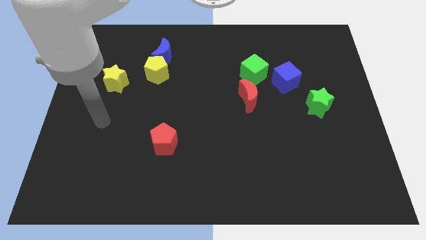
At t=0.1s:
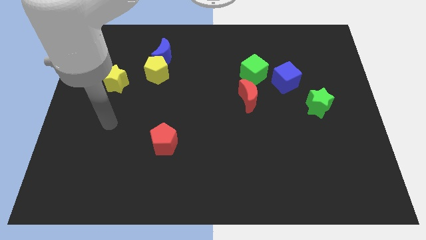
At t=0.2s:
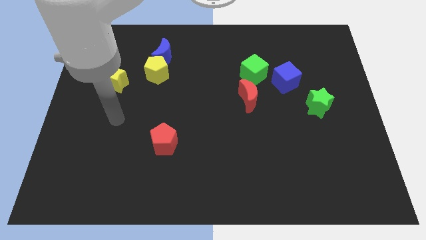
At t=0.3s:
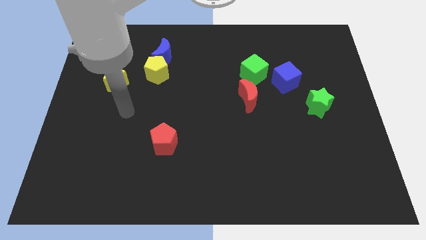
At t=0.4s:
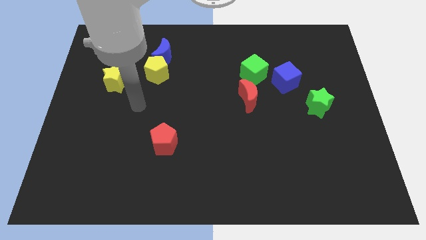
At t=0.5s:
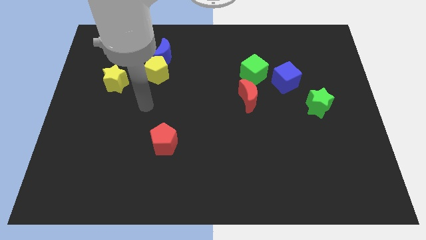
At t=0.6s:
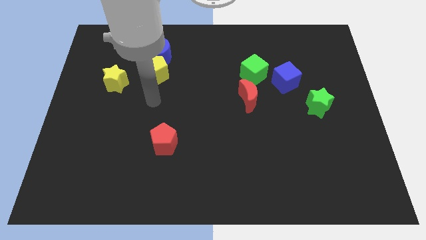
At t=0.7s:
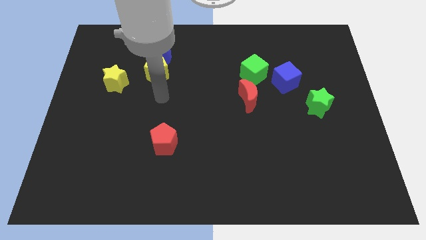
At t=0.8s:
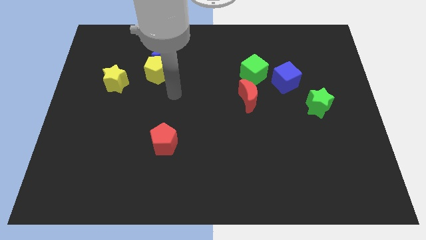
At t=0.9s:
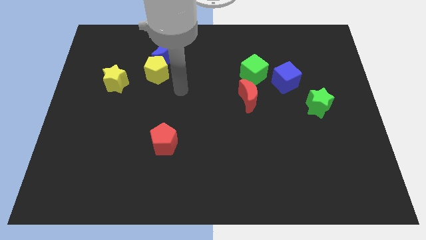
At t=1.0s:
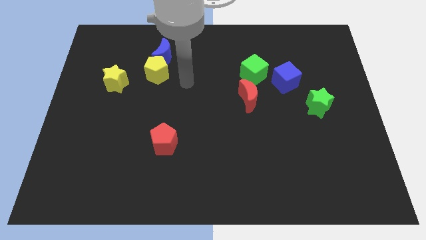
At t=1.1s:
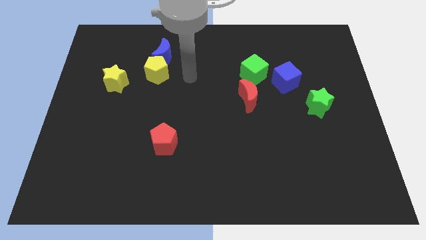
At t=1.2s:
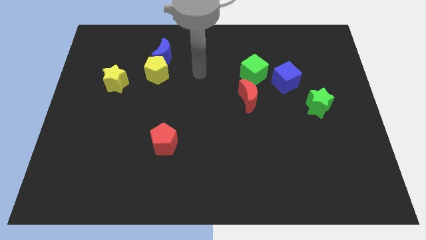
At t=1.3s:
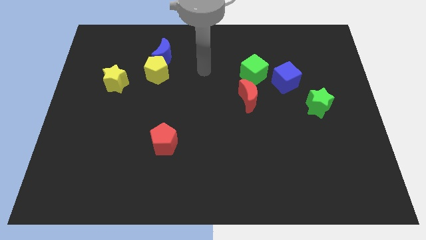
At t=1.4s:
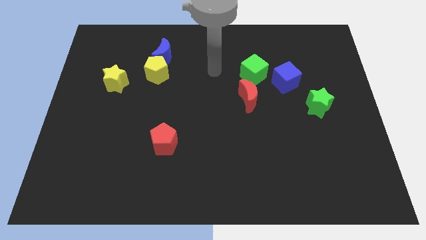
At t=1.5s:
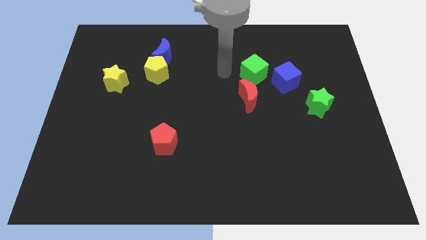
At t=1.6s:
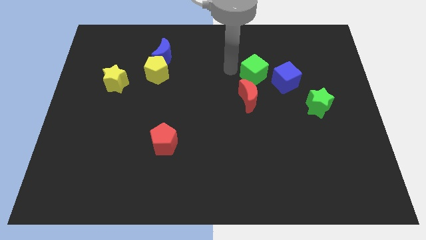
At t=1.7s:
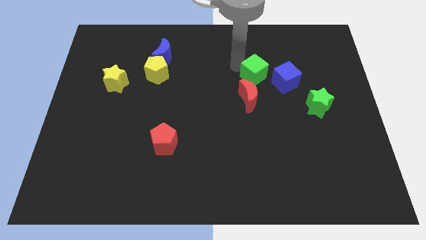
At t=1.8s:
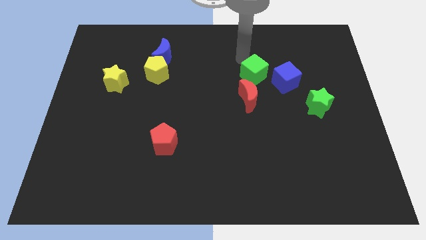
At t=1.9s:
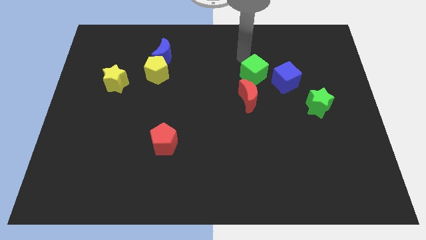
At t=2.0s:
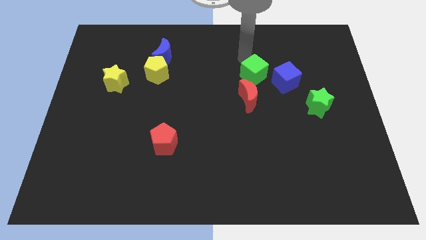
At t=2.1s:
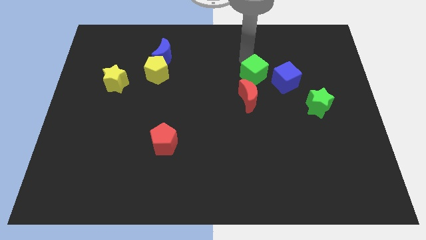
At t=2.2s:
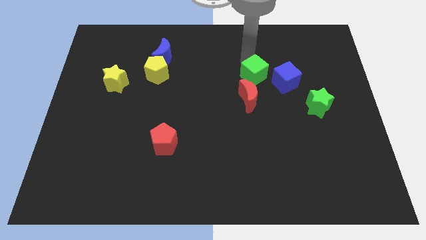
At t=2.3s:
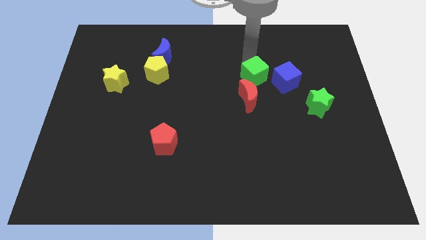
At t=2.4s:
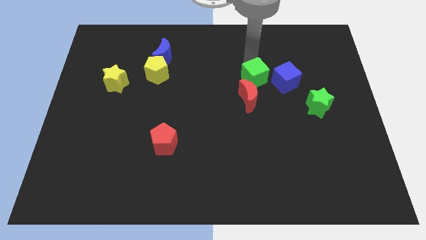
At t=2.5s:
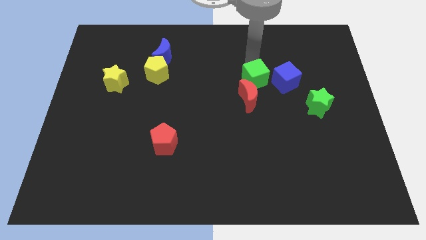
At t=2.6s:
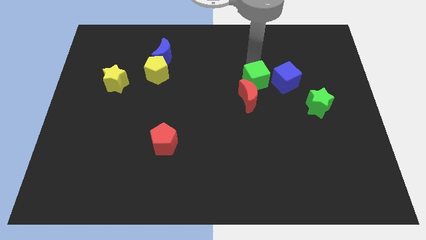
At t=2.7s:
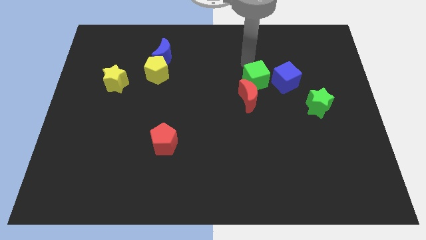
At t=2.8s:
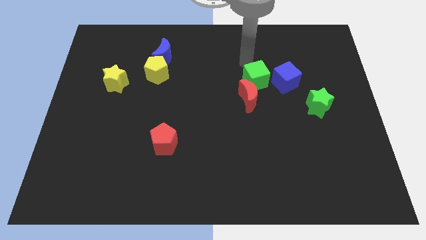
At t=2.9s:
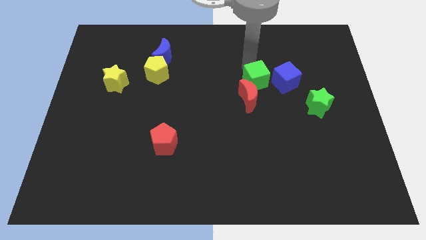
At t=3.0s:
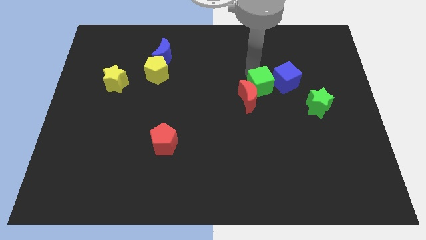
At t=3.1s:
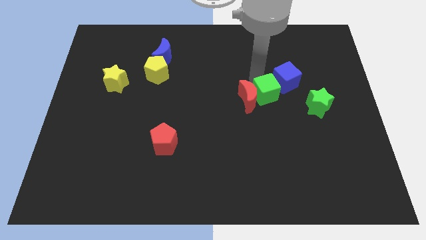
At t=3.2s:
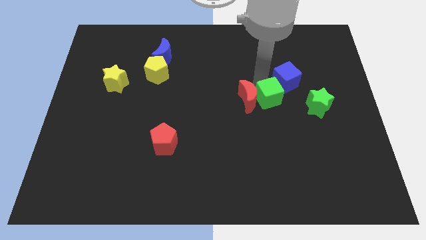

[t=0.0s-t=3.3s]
push the green cube down slightly

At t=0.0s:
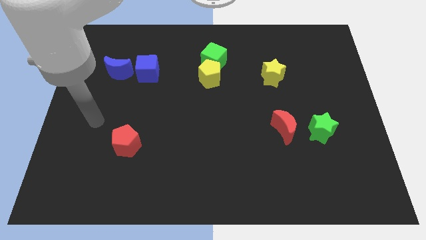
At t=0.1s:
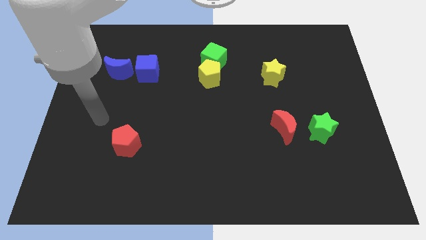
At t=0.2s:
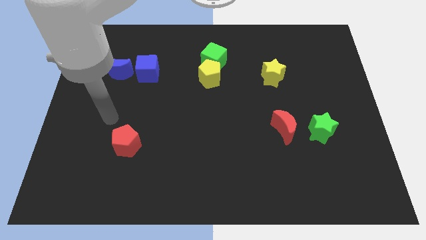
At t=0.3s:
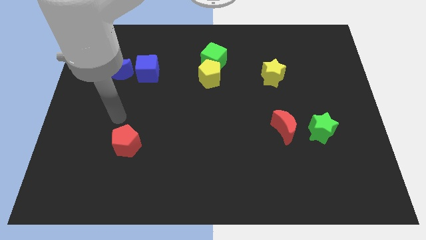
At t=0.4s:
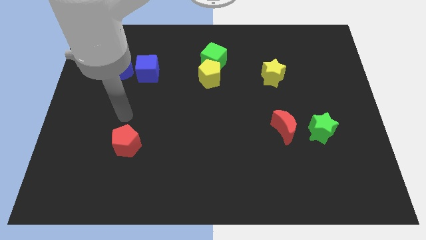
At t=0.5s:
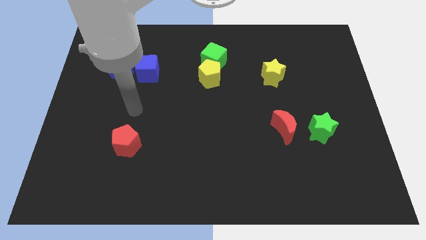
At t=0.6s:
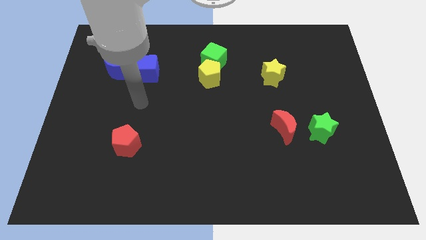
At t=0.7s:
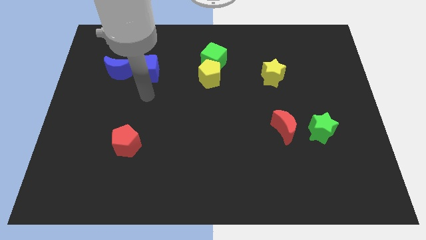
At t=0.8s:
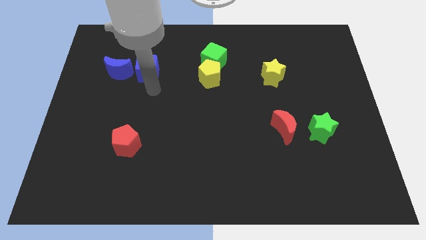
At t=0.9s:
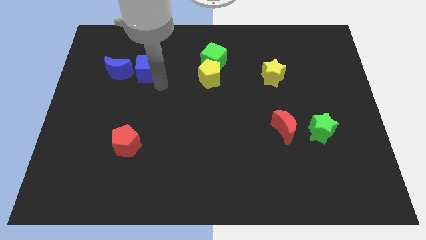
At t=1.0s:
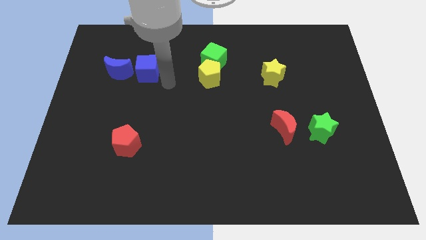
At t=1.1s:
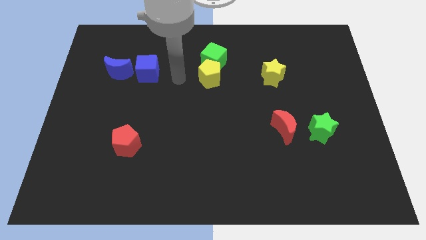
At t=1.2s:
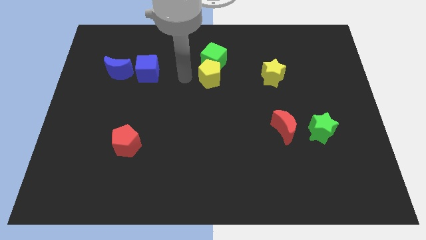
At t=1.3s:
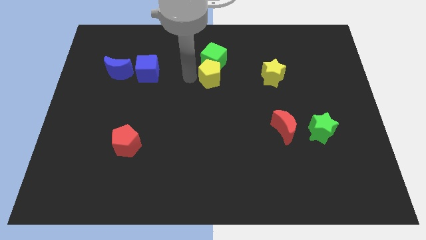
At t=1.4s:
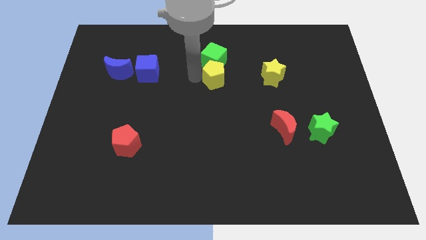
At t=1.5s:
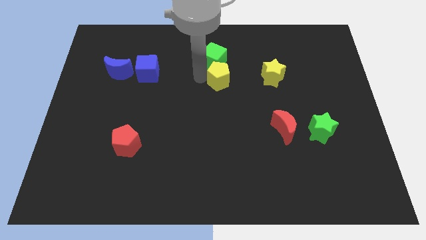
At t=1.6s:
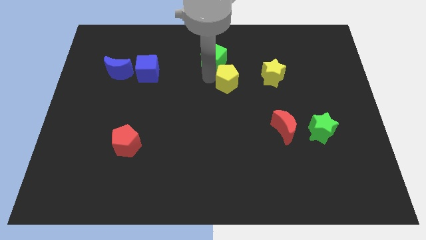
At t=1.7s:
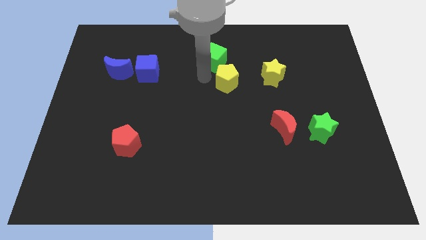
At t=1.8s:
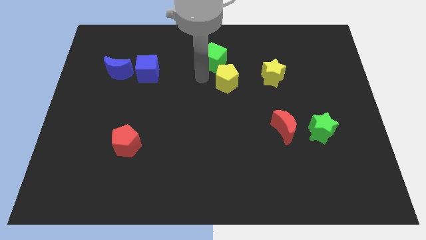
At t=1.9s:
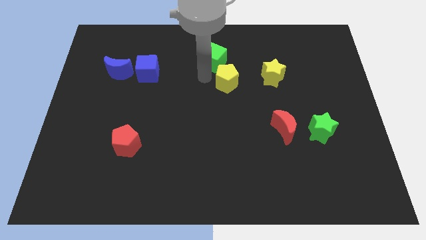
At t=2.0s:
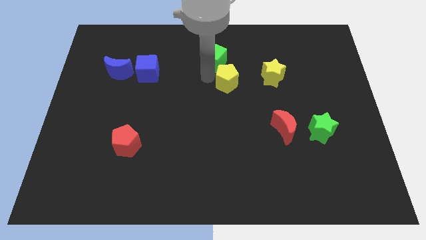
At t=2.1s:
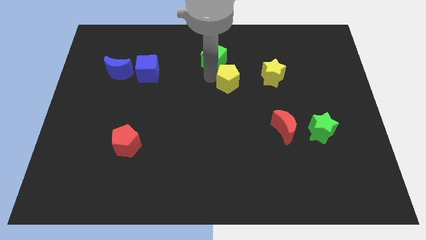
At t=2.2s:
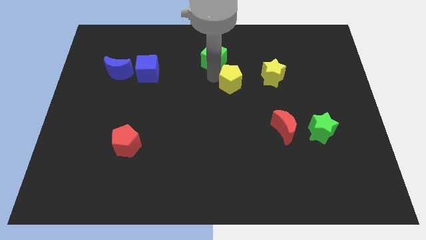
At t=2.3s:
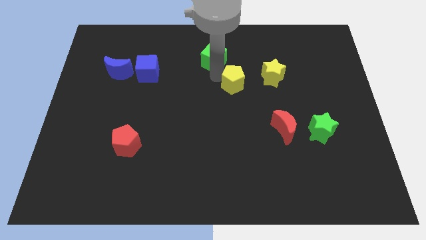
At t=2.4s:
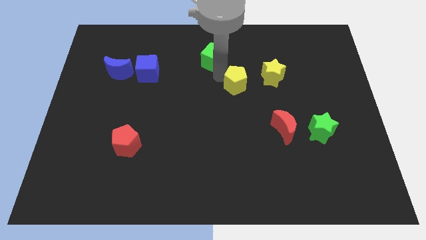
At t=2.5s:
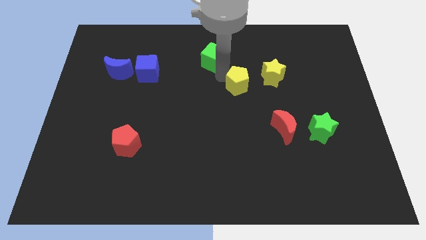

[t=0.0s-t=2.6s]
move the yellow pentagon to the right a bit

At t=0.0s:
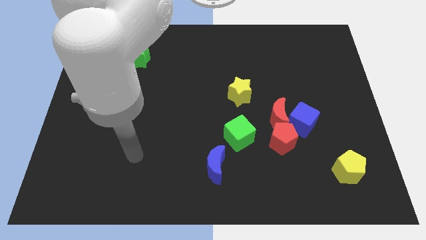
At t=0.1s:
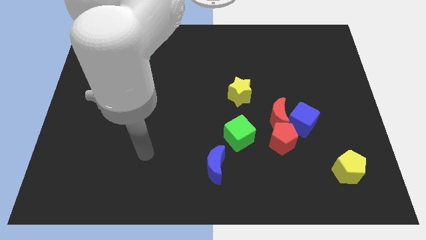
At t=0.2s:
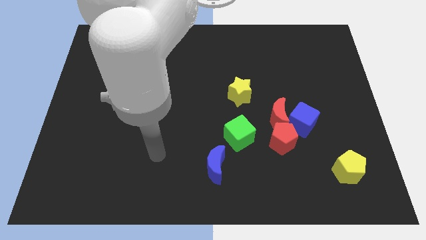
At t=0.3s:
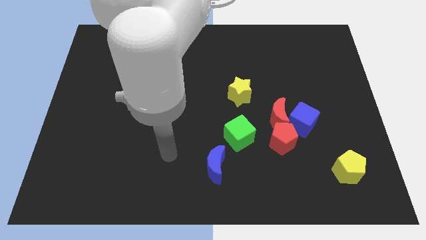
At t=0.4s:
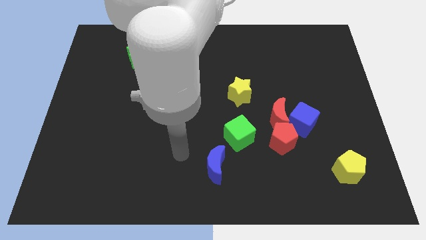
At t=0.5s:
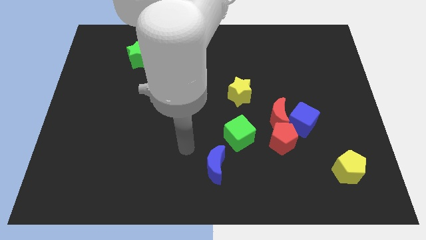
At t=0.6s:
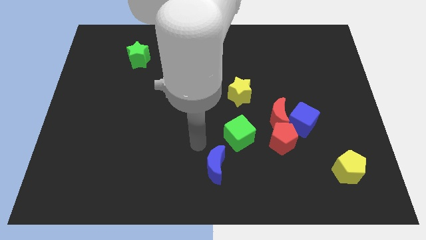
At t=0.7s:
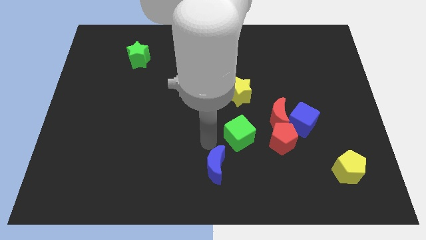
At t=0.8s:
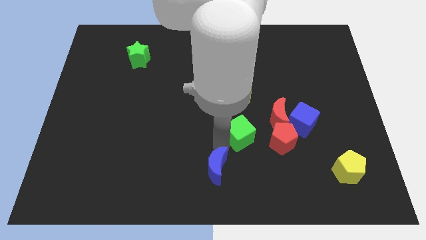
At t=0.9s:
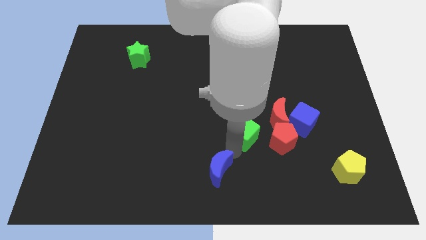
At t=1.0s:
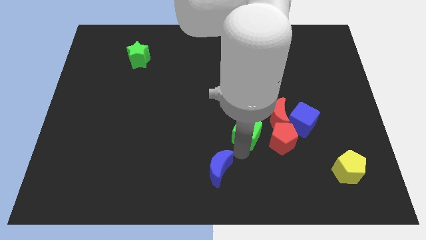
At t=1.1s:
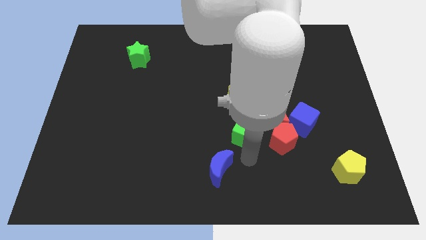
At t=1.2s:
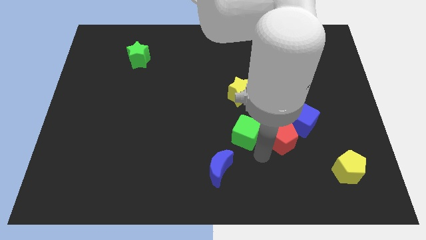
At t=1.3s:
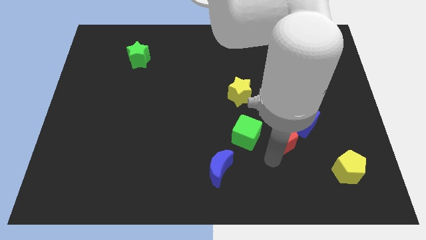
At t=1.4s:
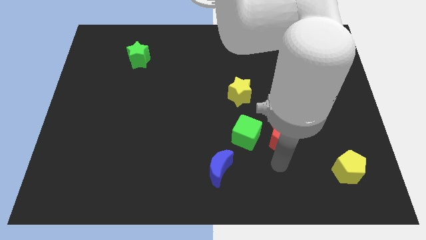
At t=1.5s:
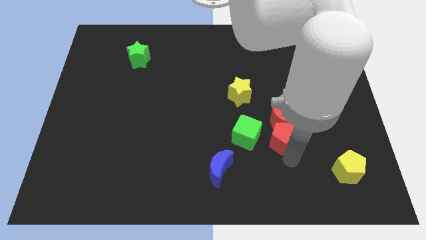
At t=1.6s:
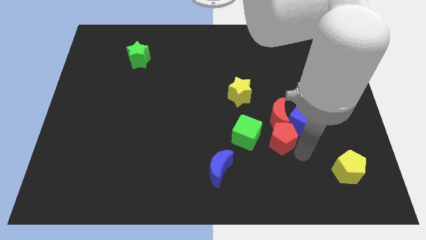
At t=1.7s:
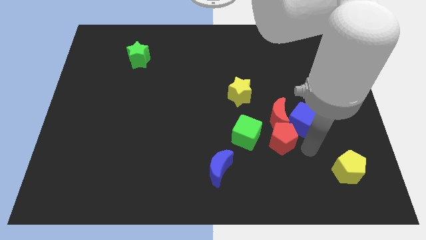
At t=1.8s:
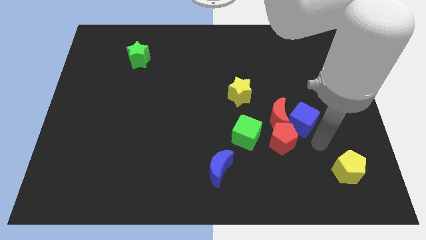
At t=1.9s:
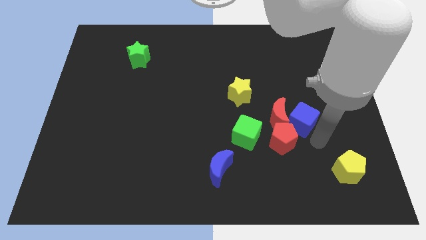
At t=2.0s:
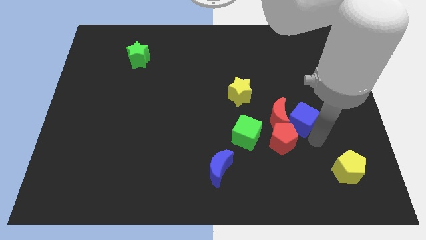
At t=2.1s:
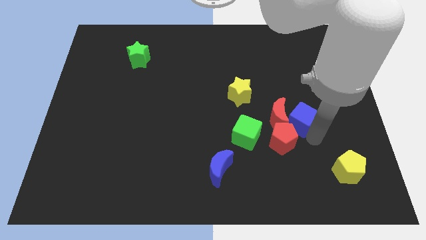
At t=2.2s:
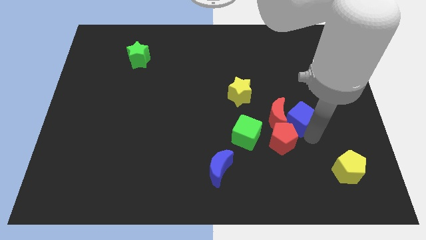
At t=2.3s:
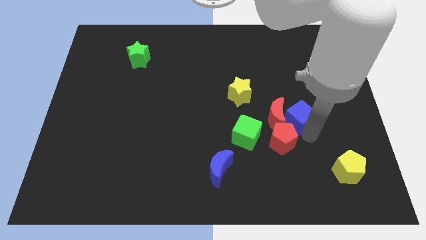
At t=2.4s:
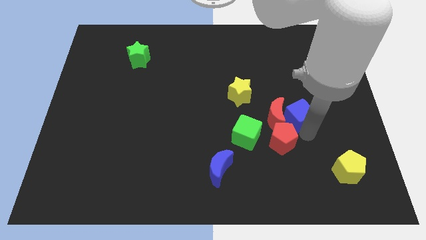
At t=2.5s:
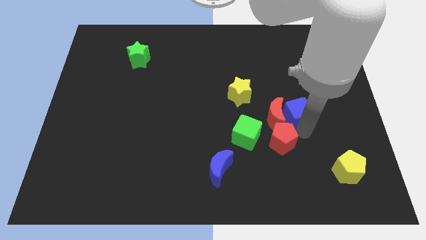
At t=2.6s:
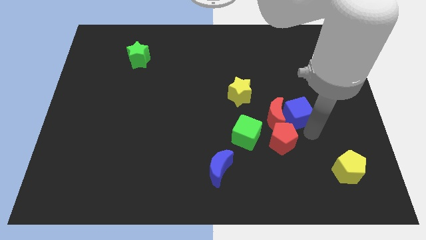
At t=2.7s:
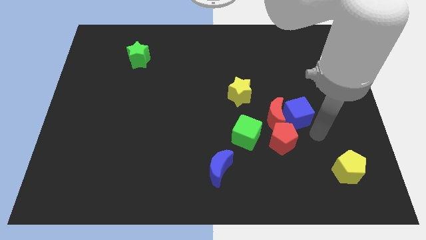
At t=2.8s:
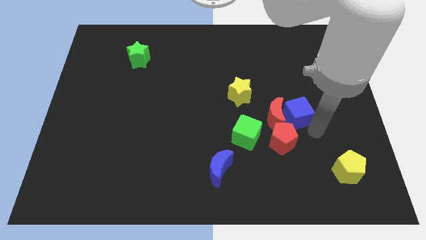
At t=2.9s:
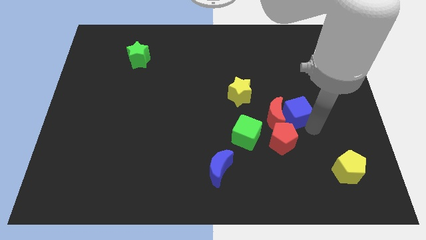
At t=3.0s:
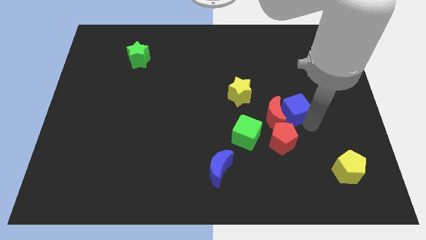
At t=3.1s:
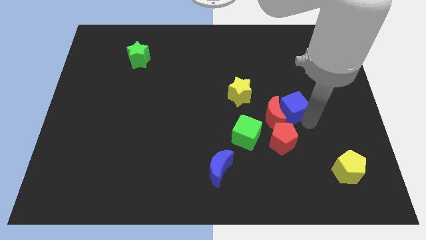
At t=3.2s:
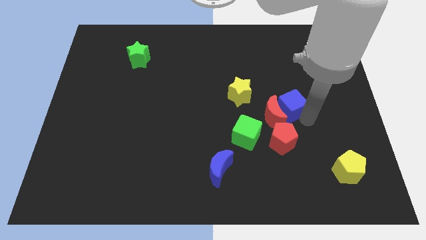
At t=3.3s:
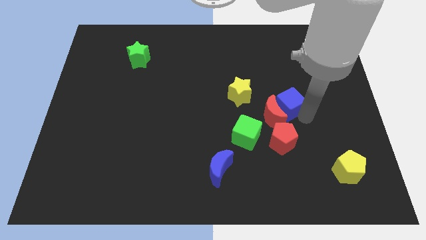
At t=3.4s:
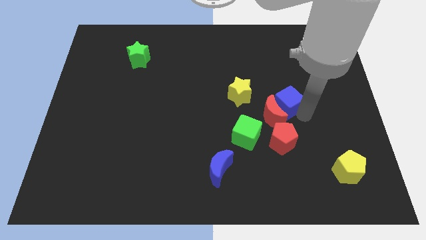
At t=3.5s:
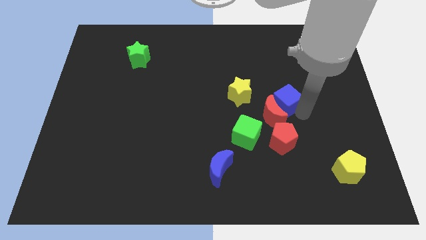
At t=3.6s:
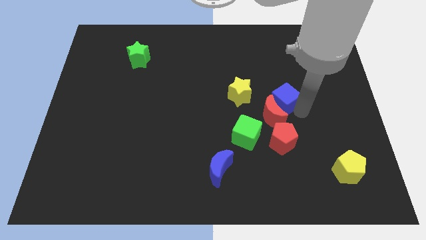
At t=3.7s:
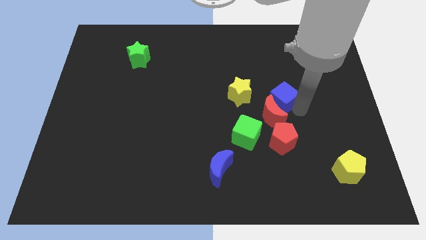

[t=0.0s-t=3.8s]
slightly move the blue cube upwards and to the left diagonally
